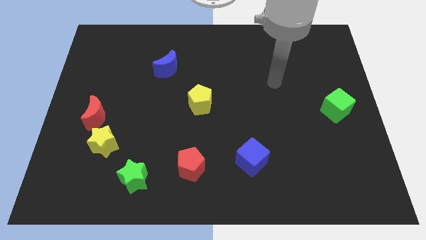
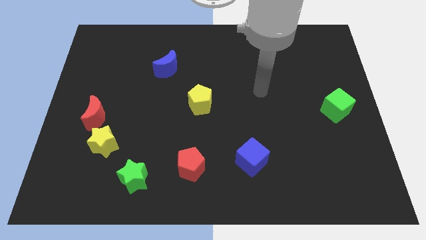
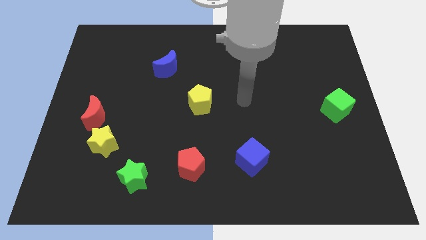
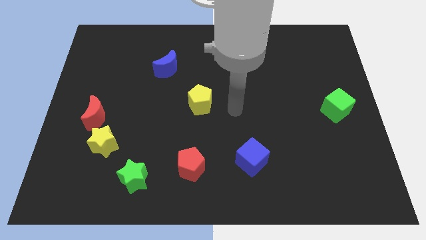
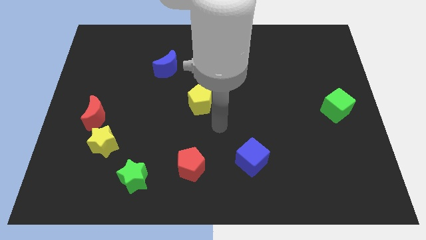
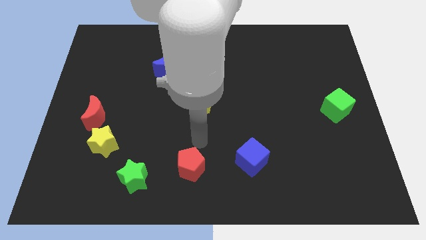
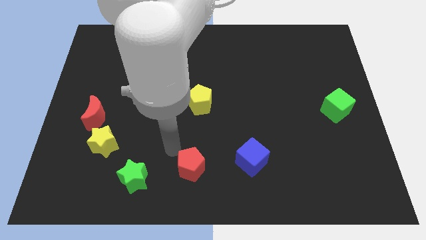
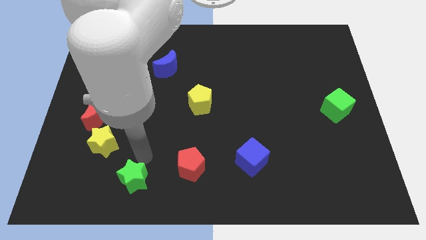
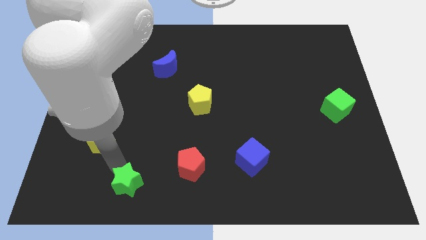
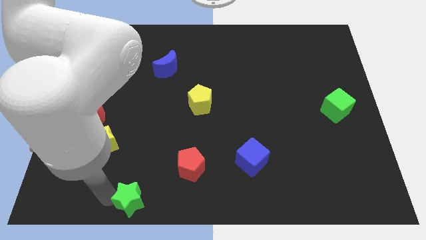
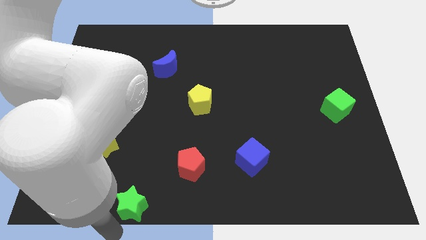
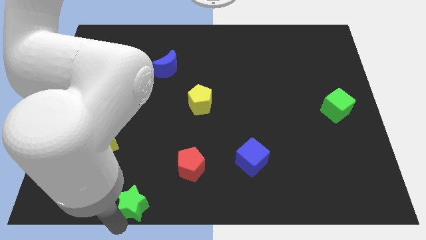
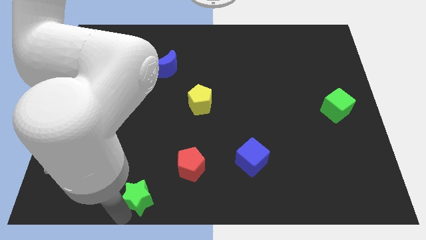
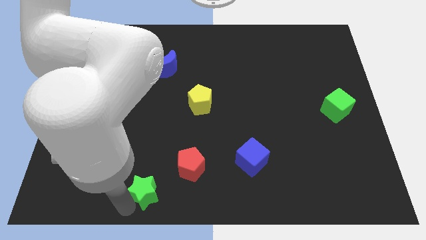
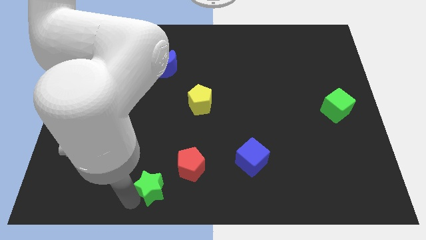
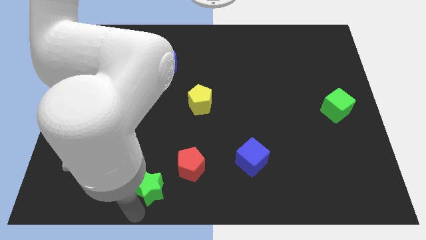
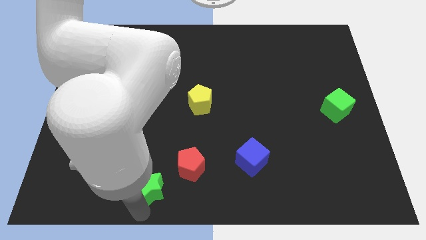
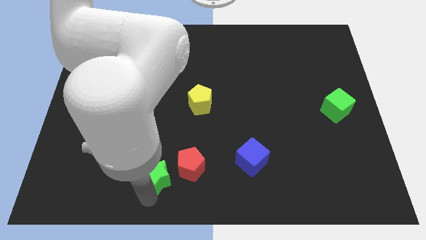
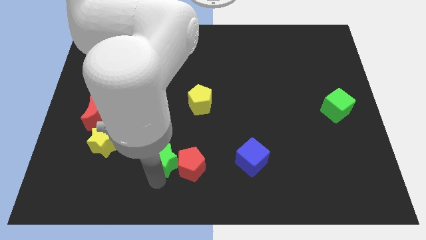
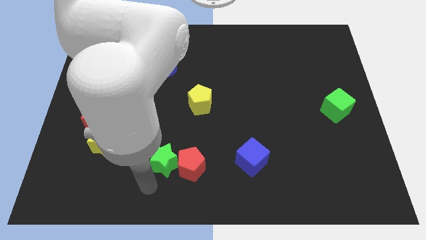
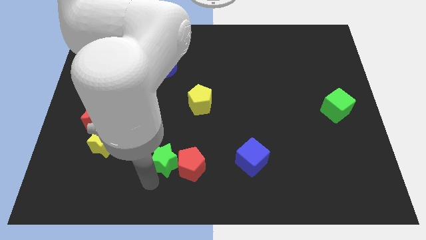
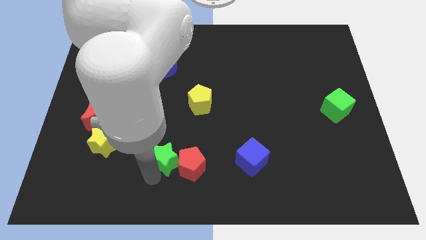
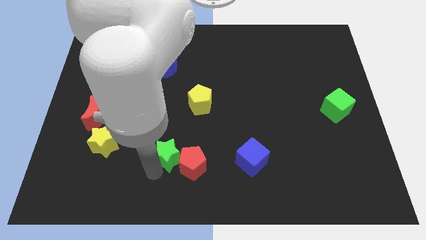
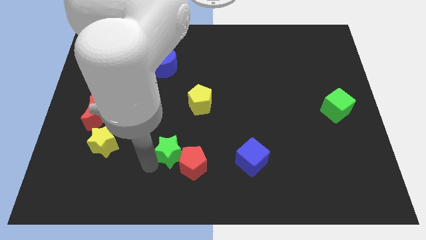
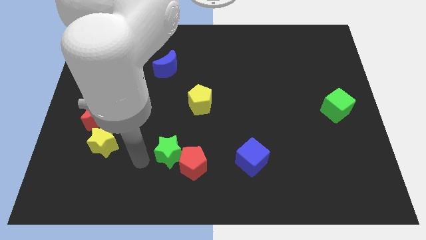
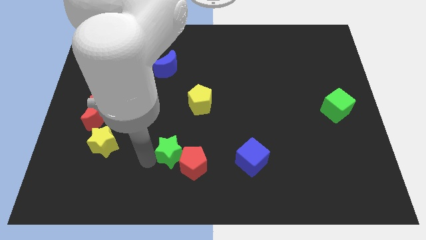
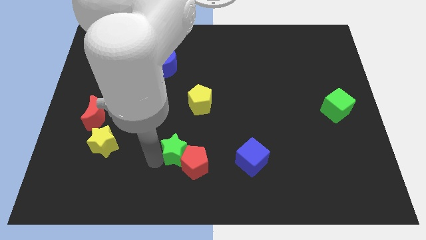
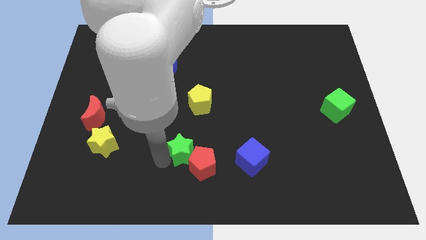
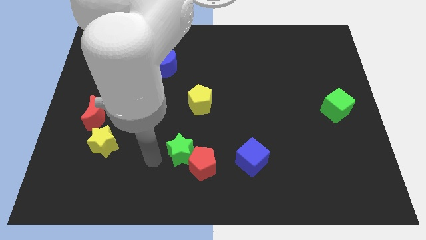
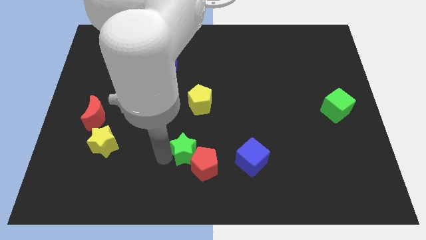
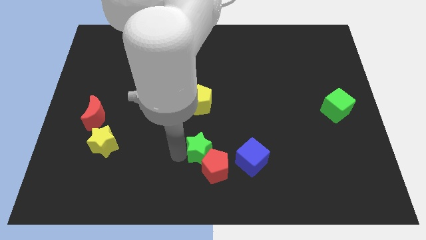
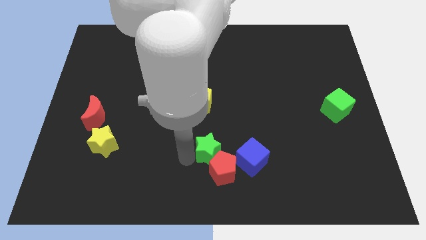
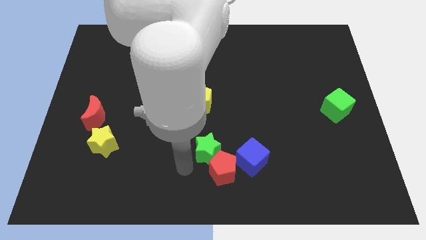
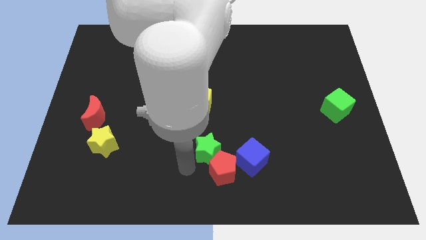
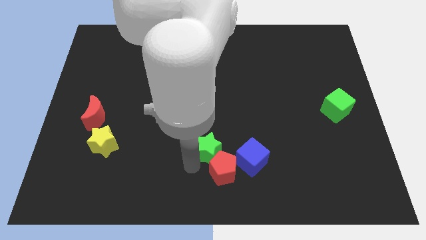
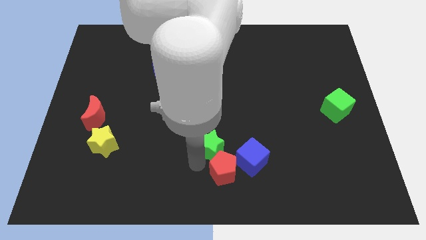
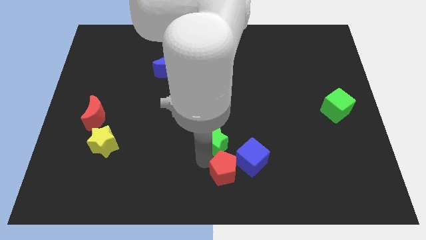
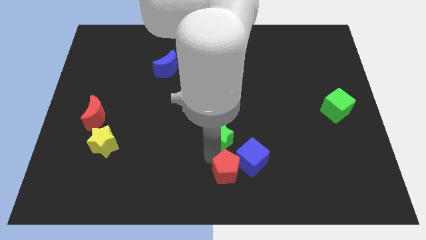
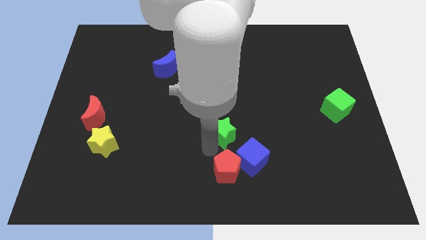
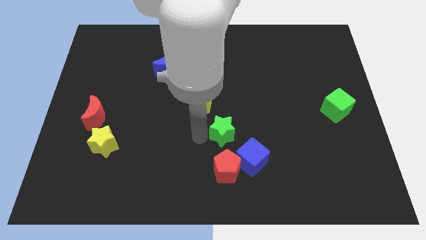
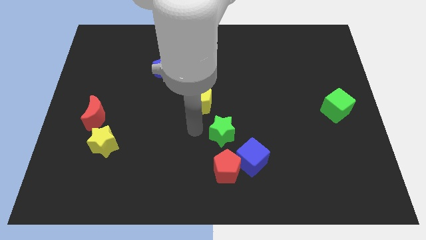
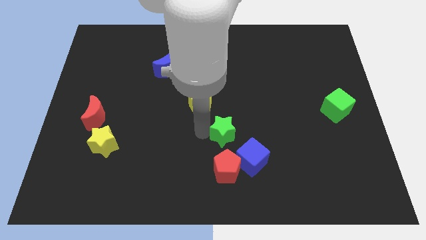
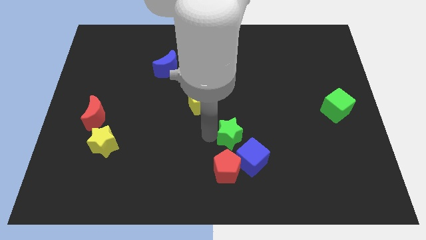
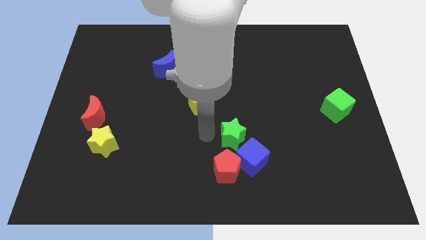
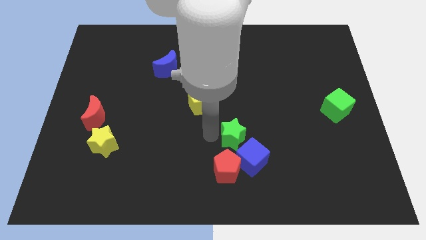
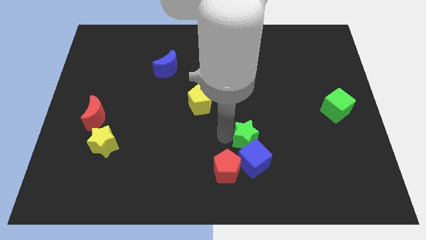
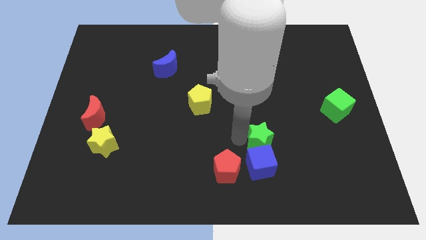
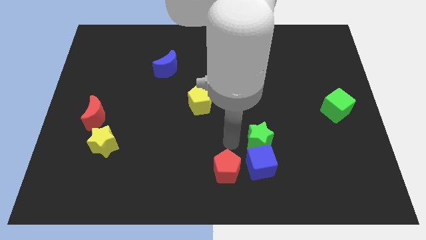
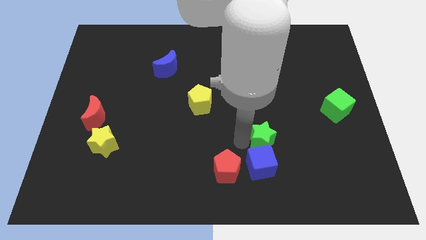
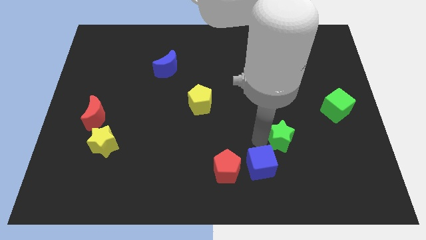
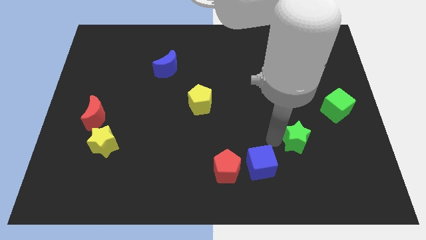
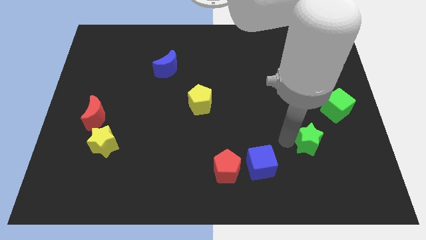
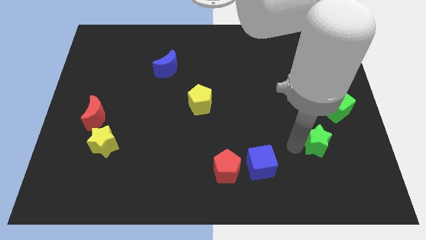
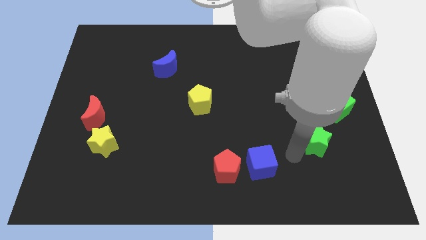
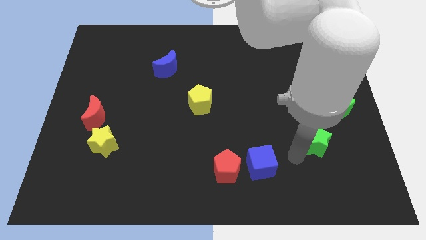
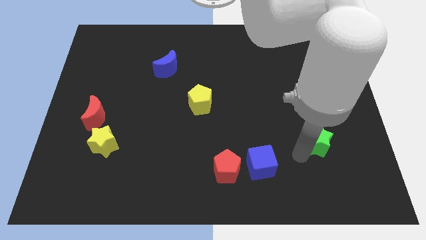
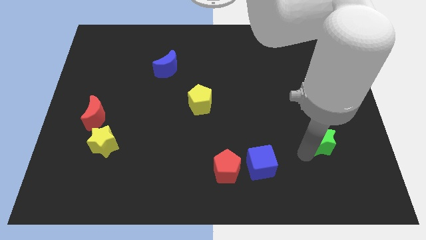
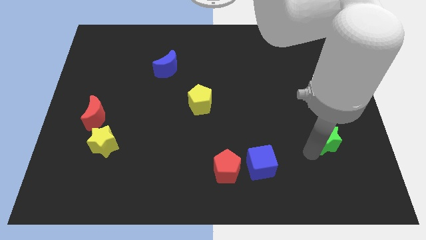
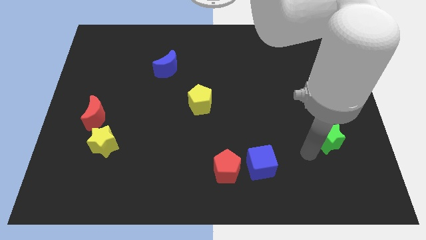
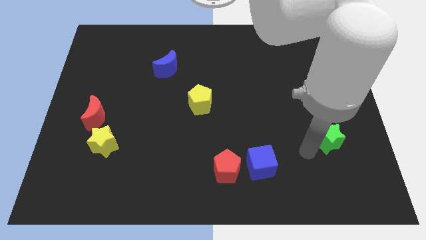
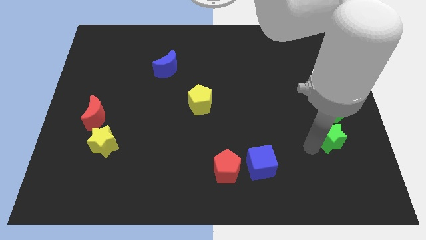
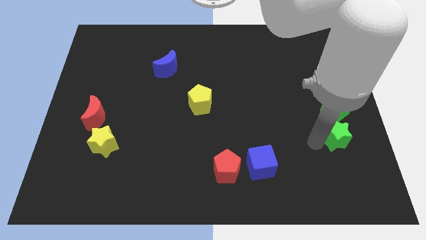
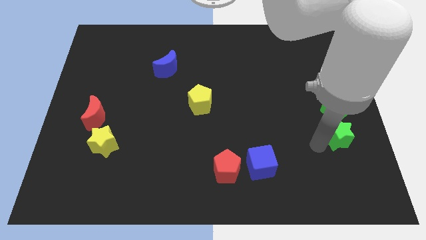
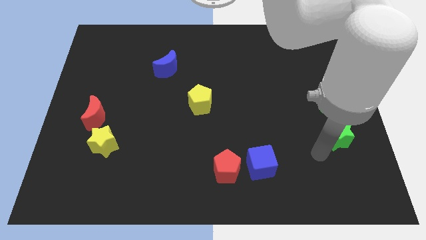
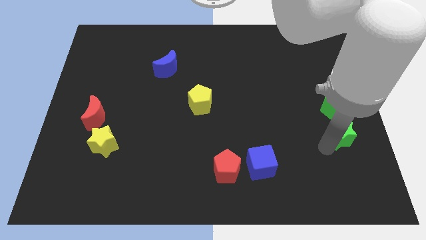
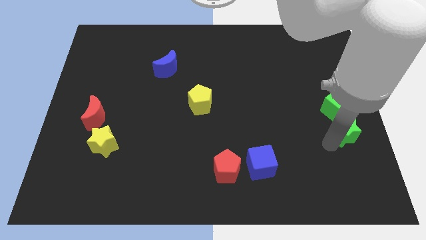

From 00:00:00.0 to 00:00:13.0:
slide the green star to the center right
